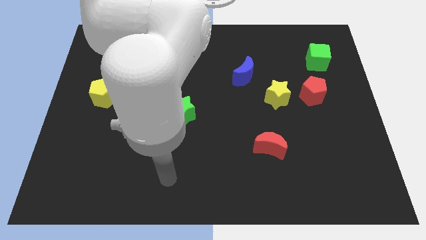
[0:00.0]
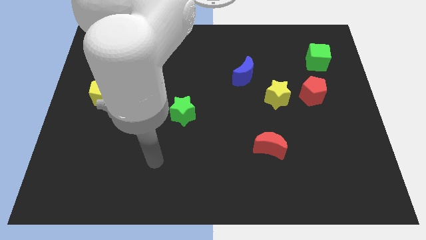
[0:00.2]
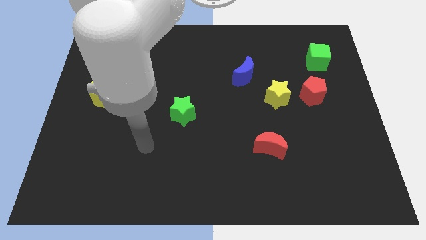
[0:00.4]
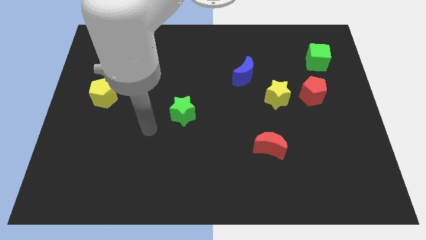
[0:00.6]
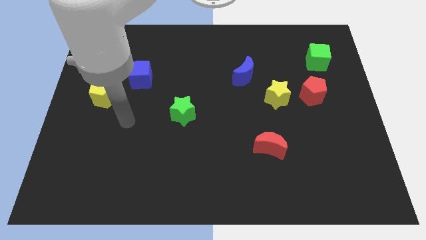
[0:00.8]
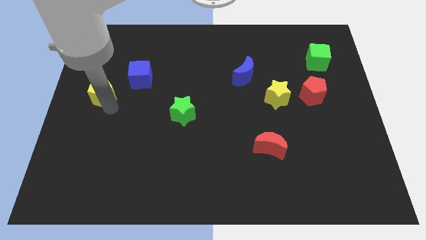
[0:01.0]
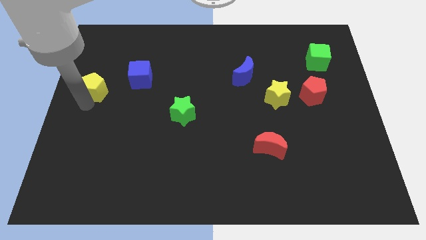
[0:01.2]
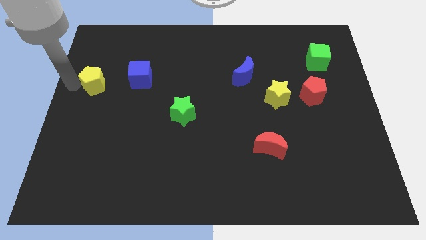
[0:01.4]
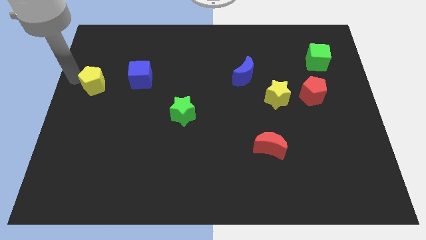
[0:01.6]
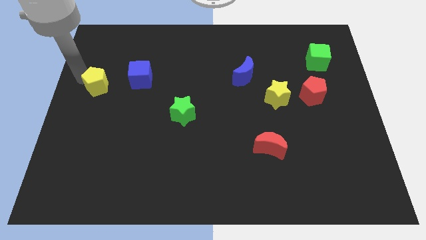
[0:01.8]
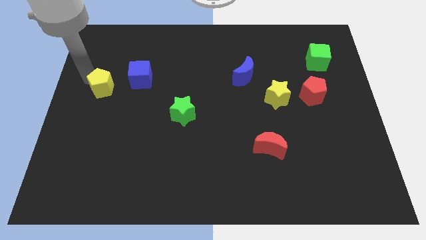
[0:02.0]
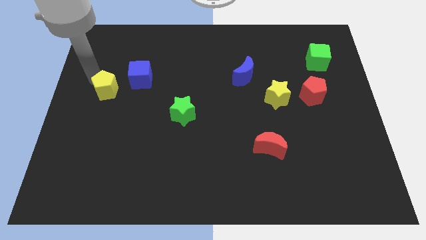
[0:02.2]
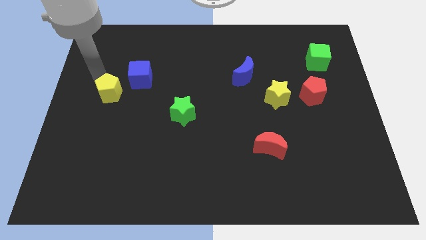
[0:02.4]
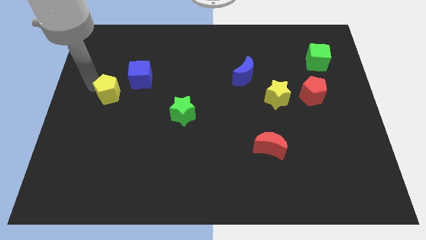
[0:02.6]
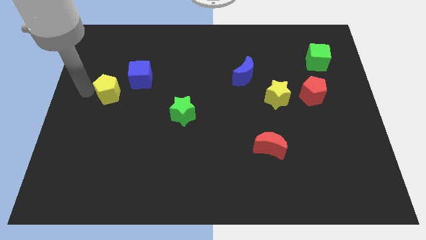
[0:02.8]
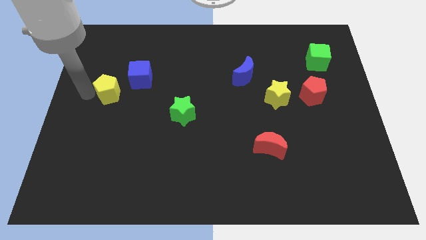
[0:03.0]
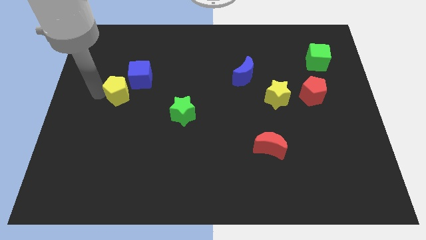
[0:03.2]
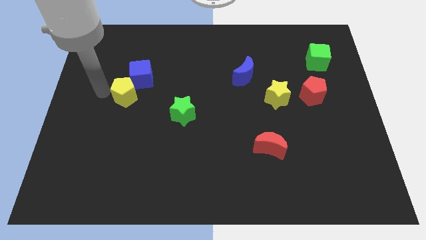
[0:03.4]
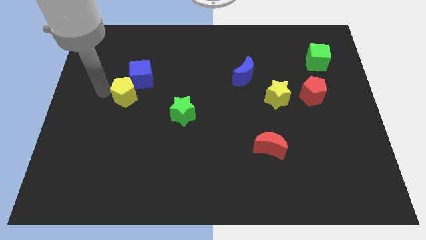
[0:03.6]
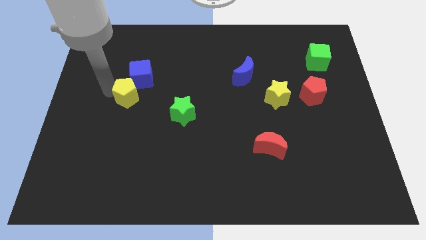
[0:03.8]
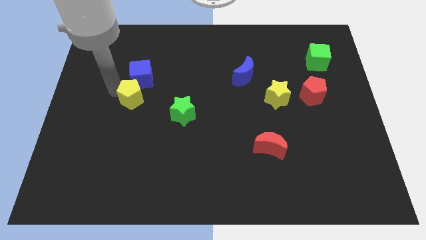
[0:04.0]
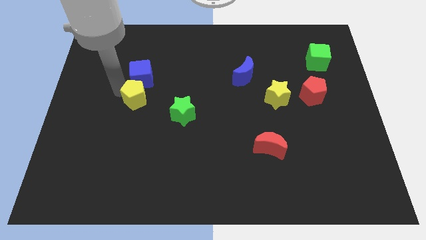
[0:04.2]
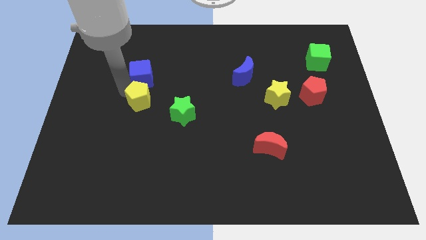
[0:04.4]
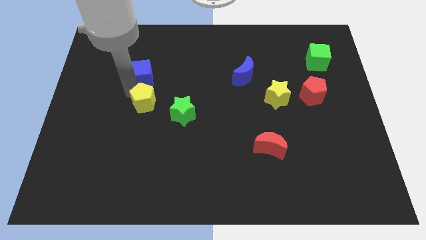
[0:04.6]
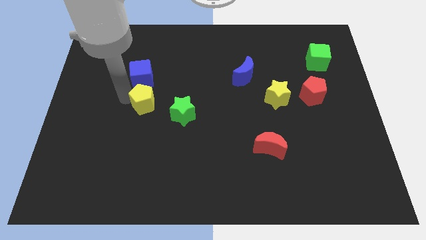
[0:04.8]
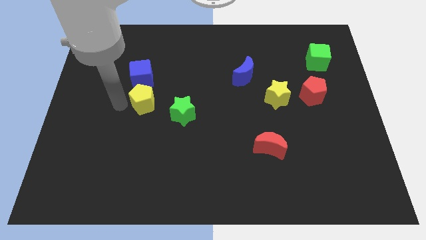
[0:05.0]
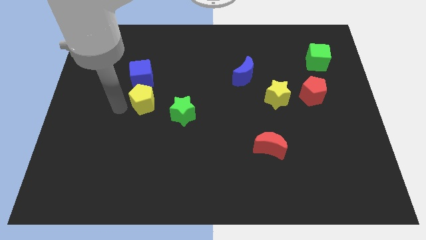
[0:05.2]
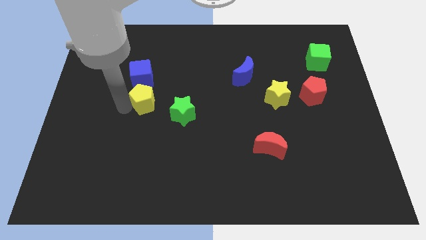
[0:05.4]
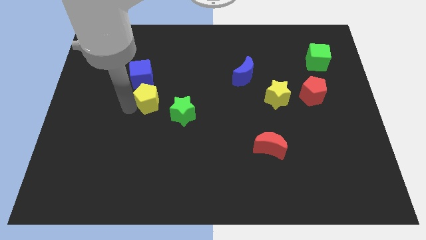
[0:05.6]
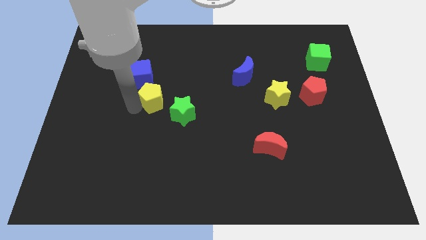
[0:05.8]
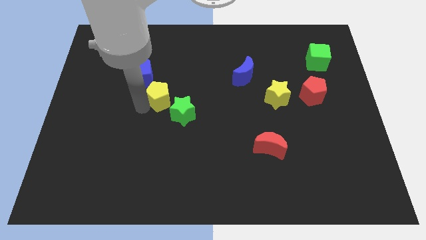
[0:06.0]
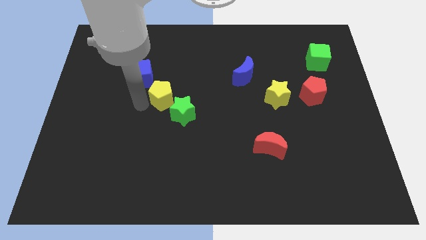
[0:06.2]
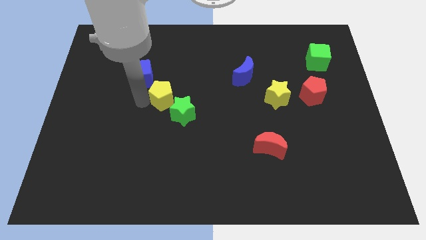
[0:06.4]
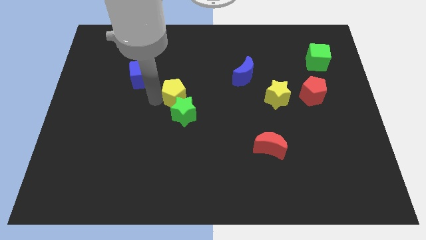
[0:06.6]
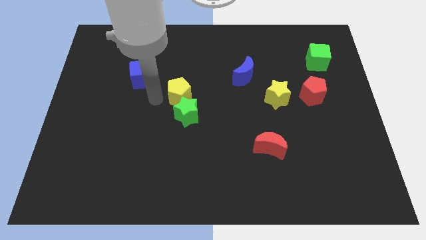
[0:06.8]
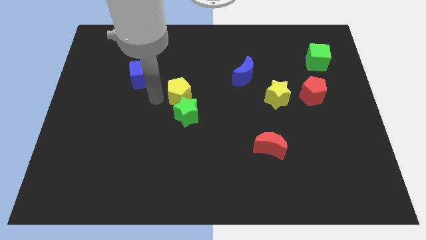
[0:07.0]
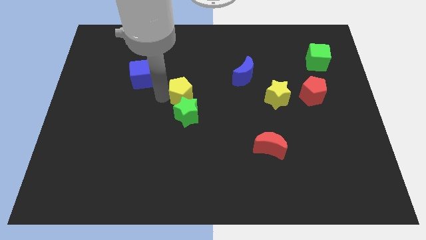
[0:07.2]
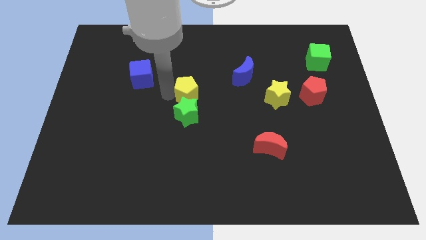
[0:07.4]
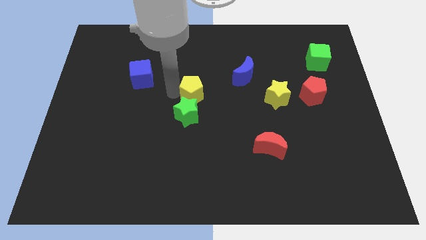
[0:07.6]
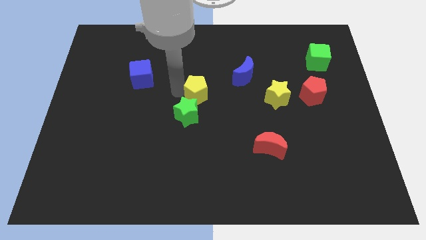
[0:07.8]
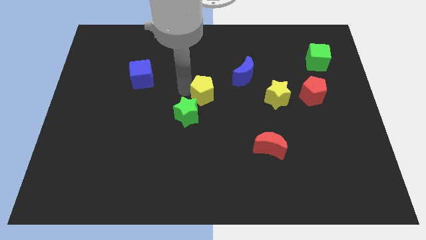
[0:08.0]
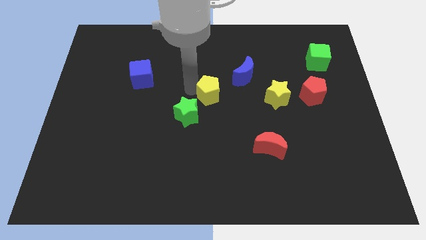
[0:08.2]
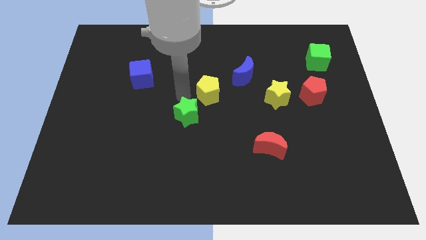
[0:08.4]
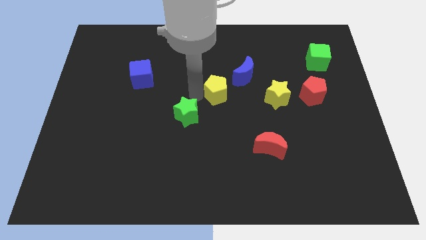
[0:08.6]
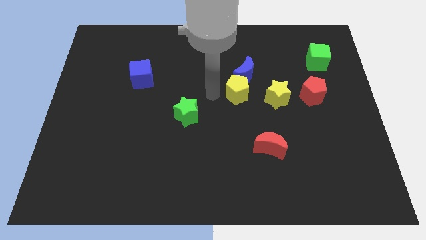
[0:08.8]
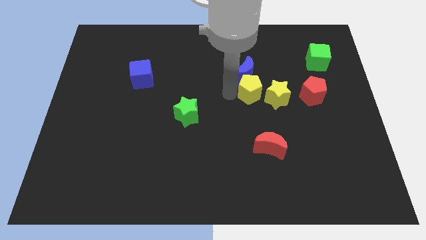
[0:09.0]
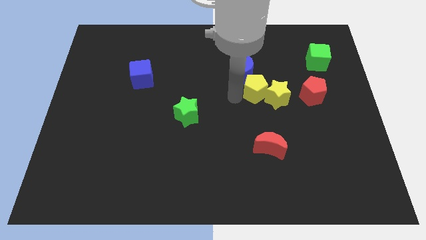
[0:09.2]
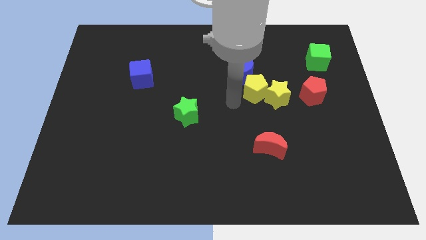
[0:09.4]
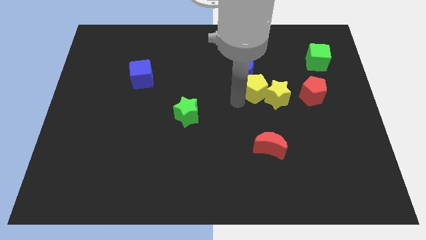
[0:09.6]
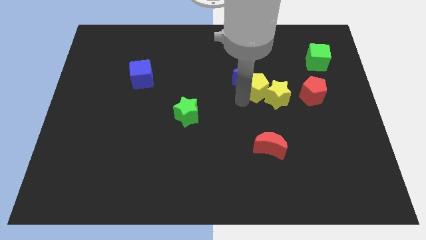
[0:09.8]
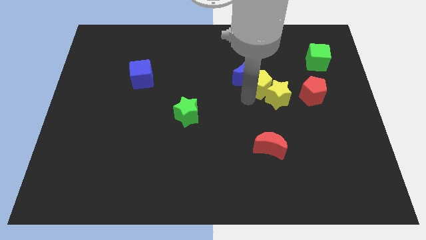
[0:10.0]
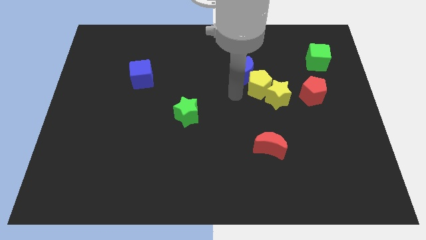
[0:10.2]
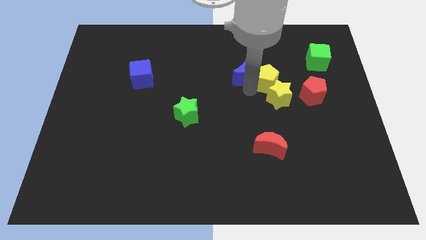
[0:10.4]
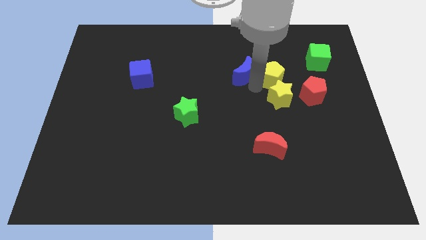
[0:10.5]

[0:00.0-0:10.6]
push the yellow pentagon to the top left side of the red pentagon

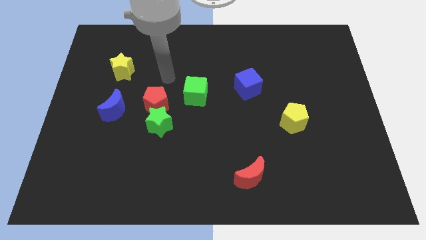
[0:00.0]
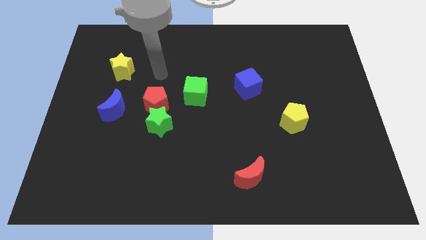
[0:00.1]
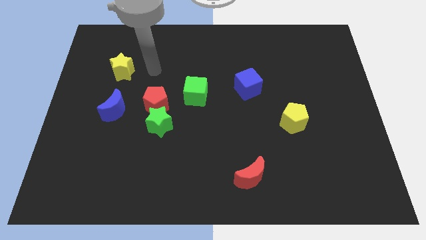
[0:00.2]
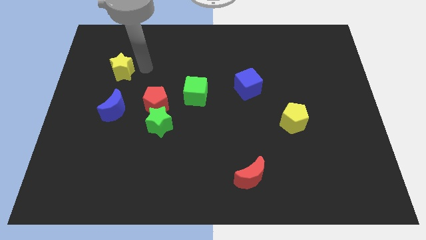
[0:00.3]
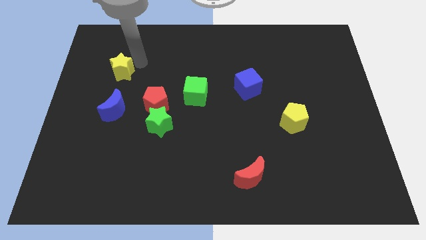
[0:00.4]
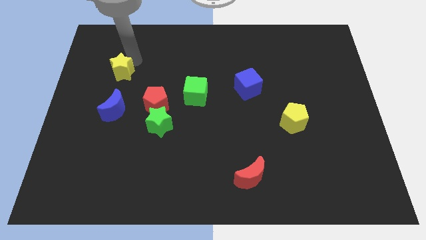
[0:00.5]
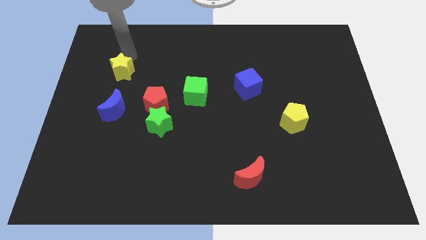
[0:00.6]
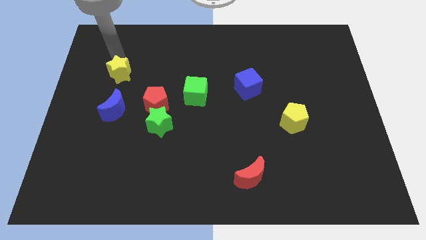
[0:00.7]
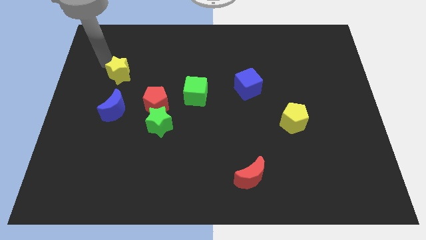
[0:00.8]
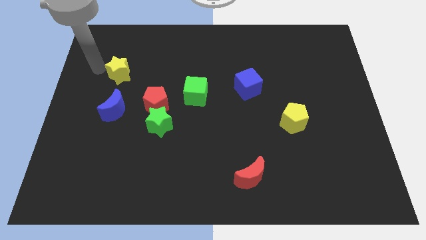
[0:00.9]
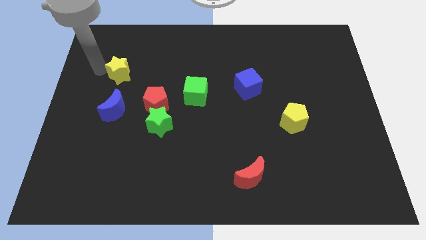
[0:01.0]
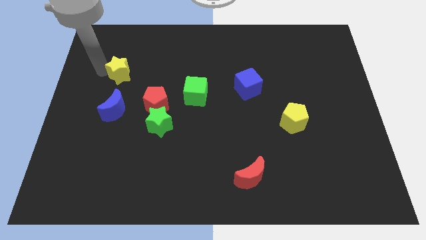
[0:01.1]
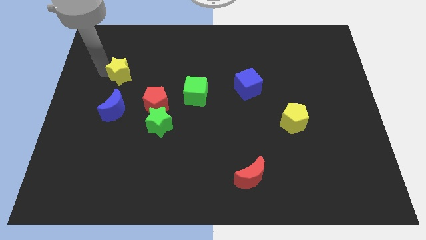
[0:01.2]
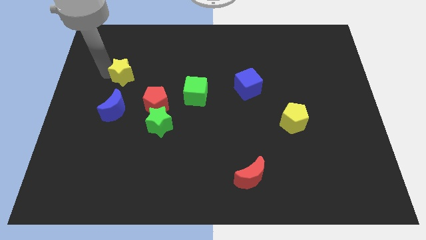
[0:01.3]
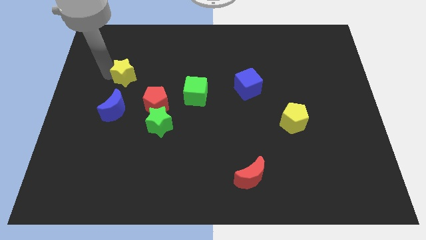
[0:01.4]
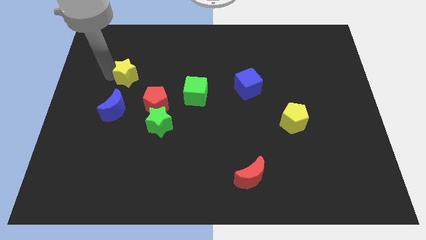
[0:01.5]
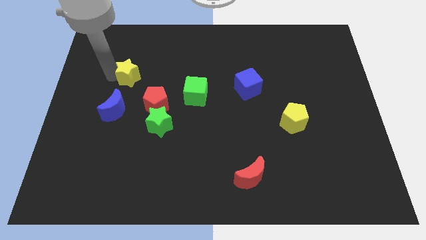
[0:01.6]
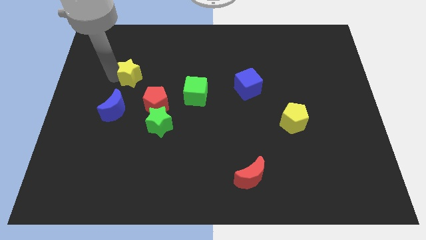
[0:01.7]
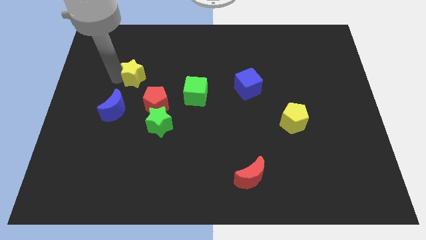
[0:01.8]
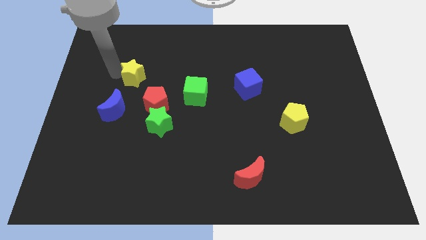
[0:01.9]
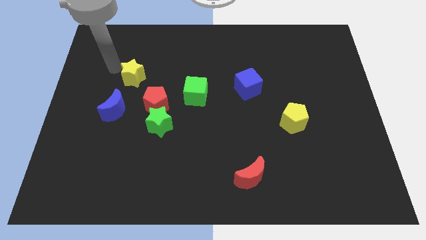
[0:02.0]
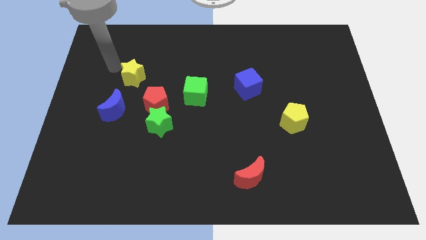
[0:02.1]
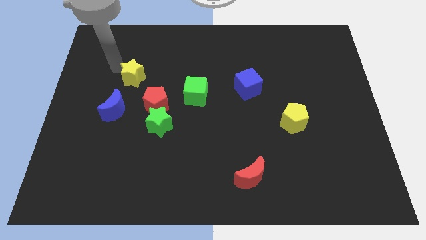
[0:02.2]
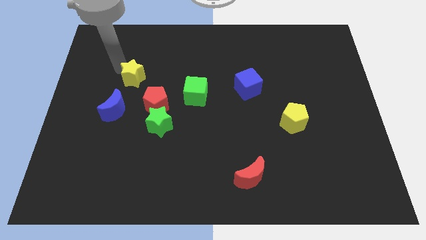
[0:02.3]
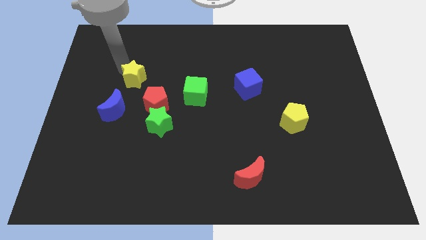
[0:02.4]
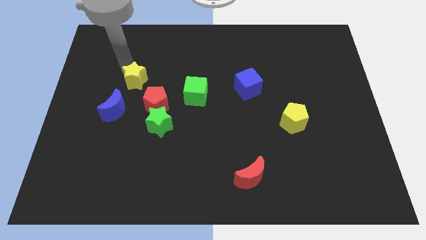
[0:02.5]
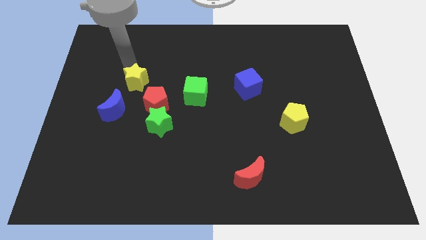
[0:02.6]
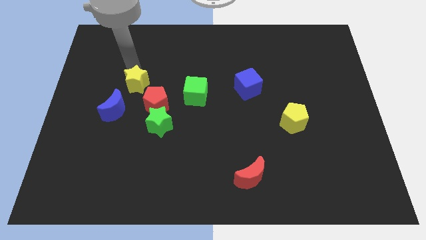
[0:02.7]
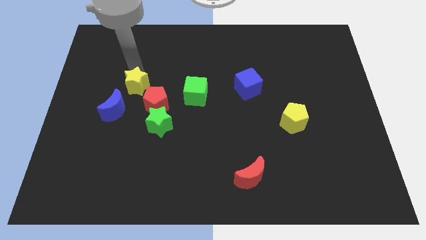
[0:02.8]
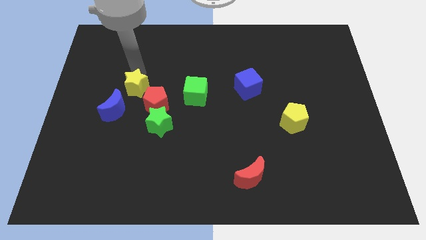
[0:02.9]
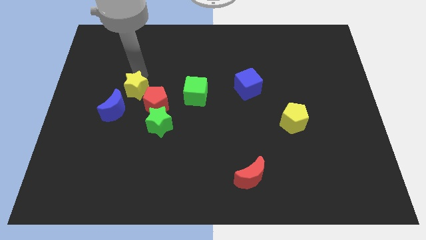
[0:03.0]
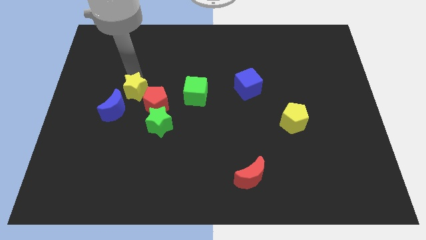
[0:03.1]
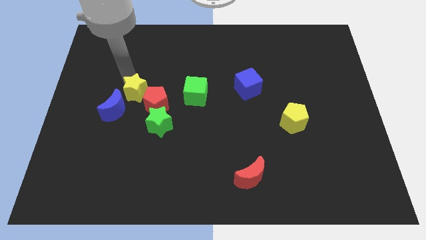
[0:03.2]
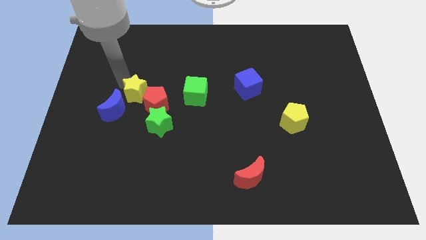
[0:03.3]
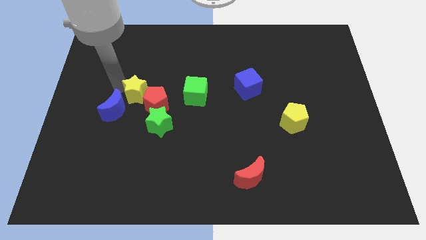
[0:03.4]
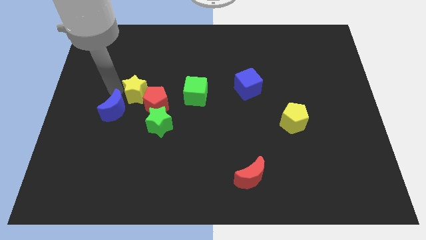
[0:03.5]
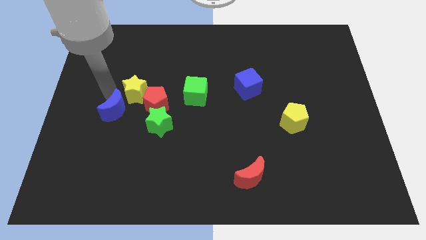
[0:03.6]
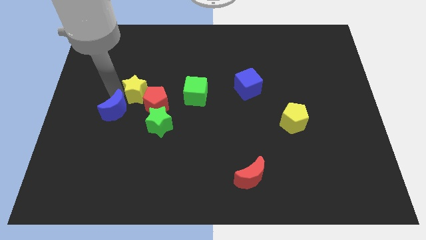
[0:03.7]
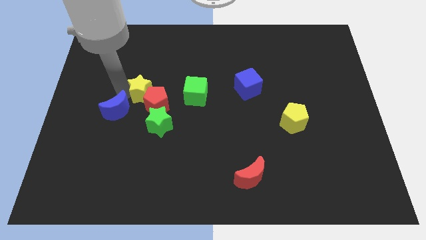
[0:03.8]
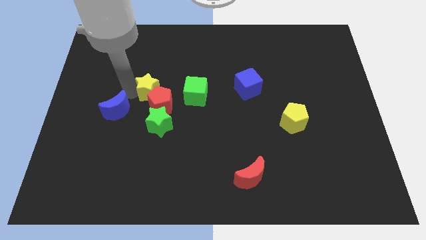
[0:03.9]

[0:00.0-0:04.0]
put the yellow star to the top of the green star
